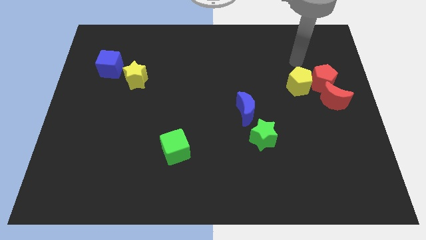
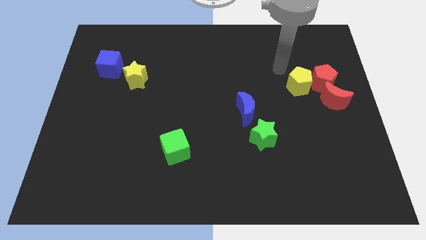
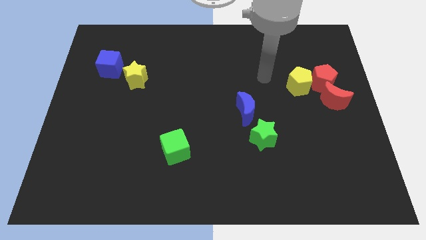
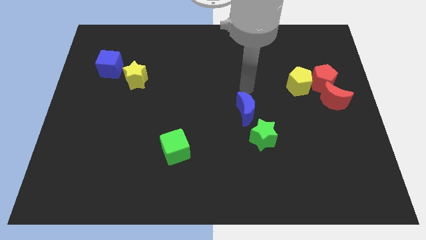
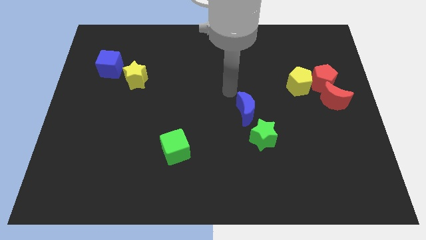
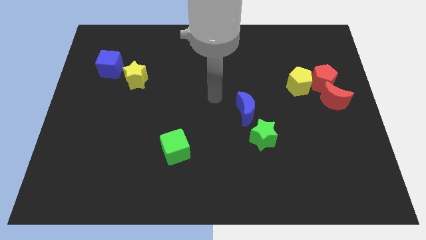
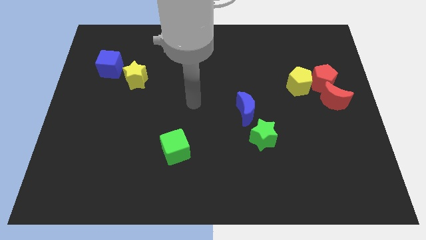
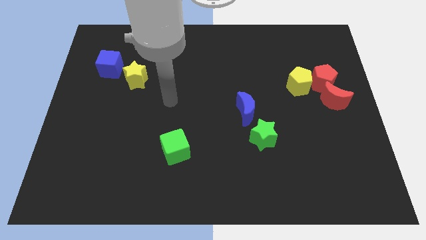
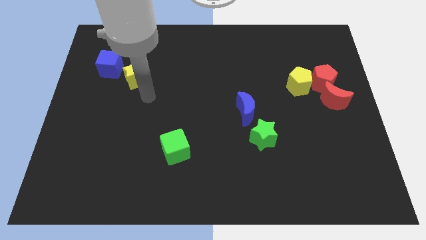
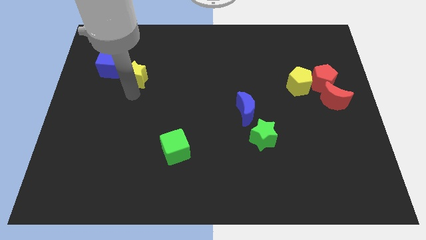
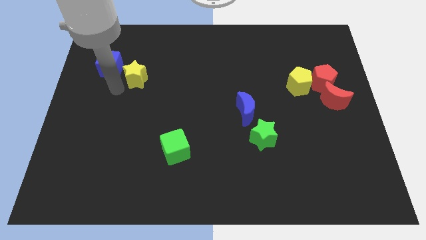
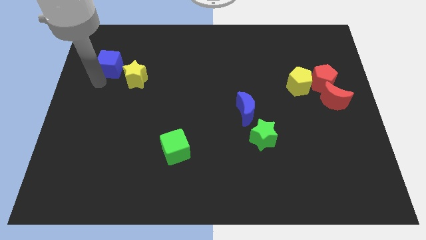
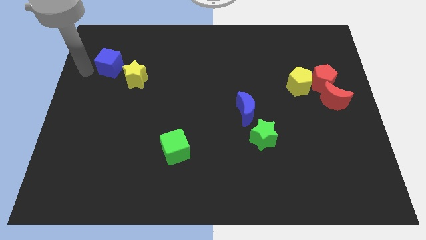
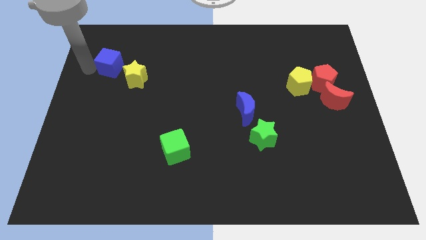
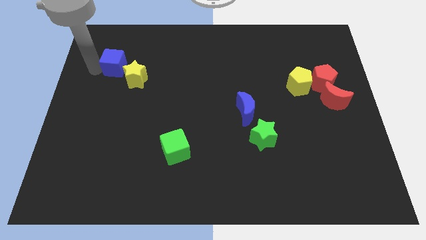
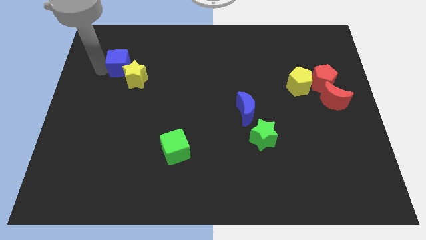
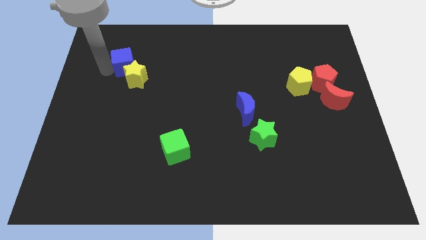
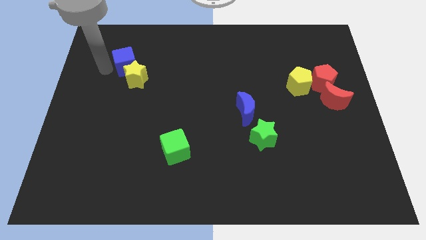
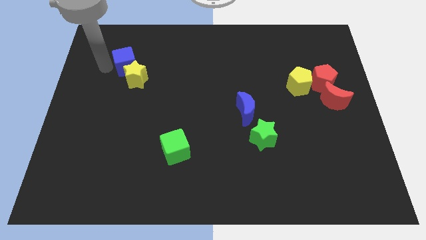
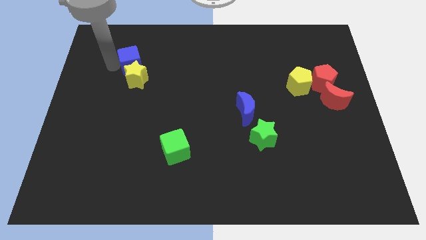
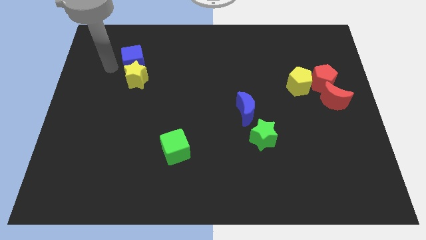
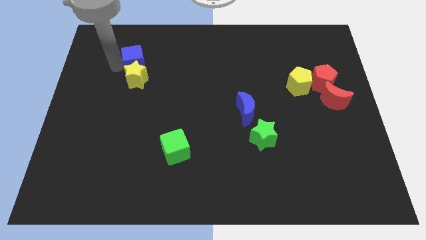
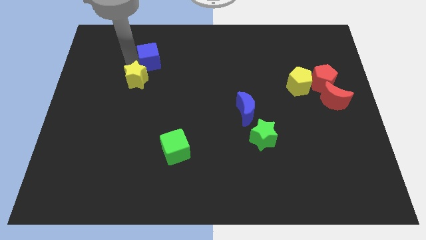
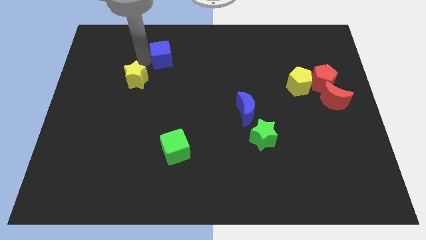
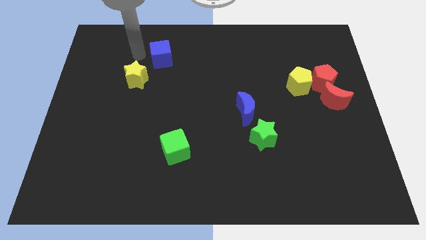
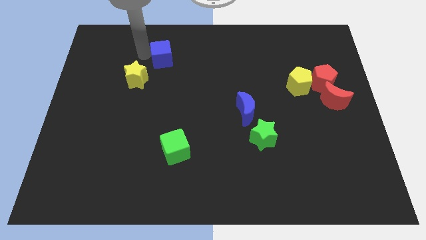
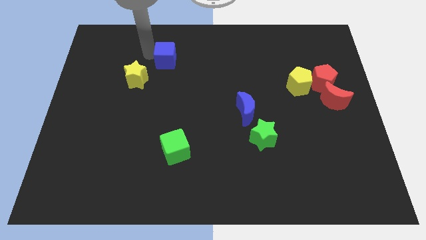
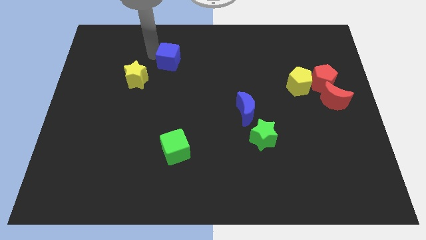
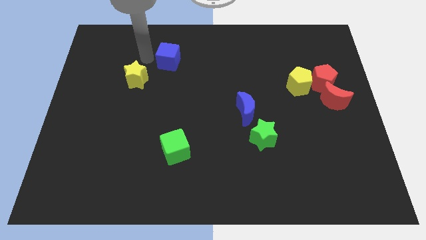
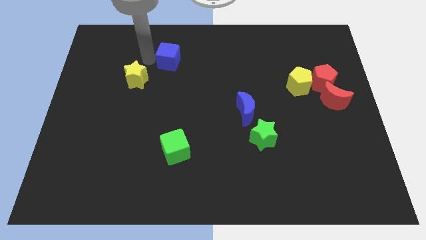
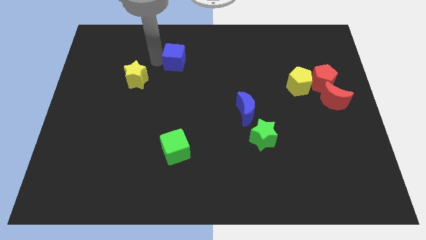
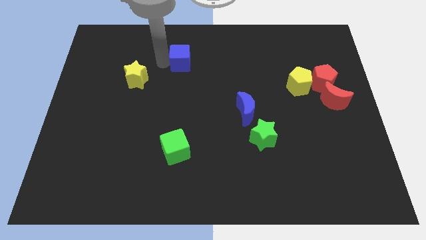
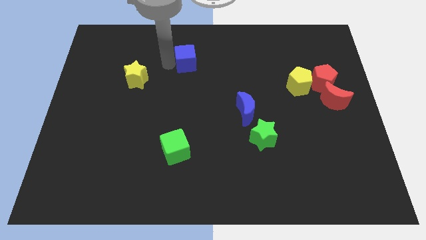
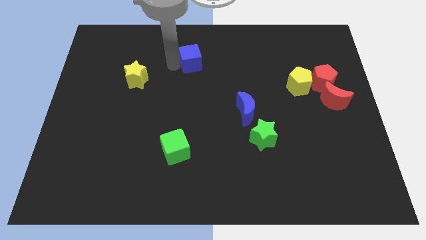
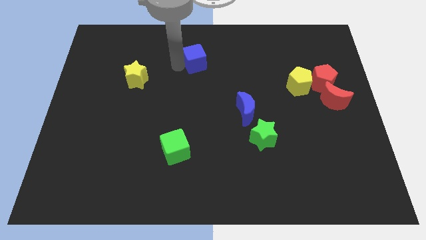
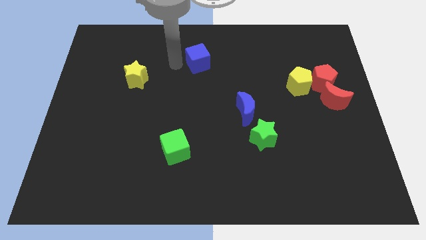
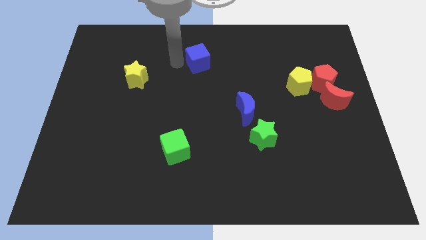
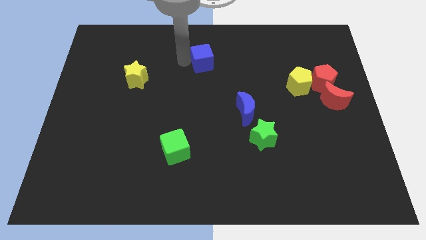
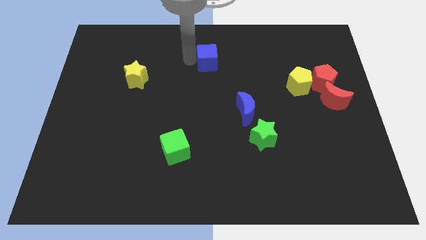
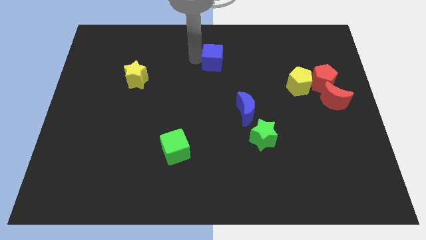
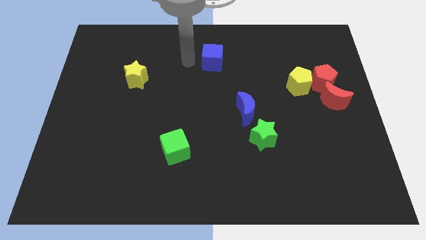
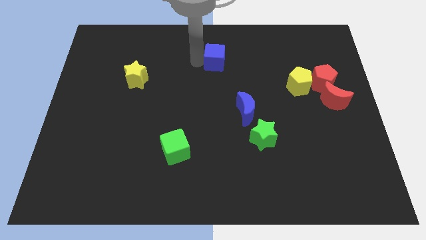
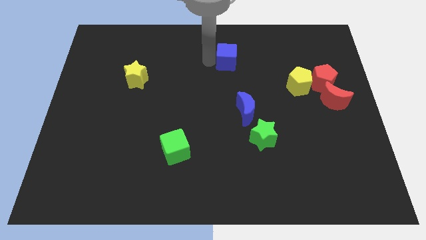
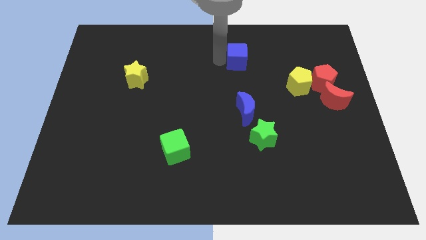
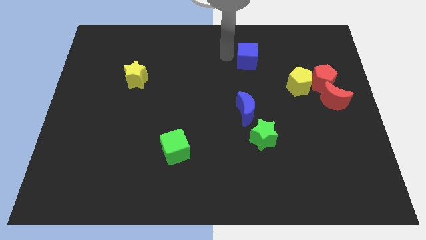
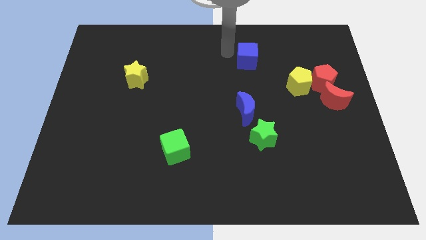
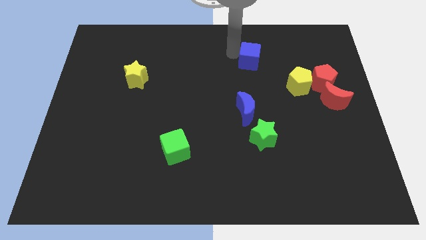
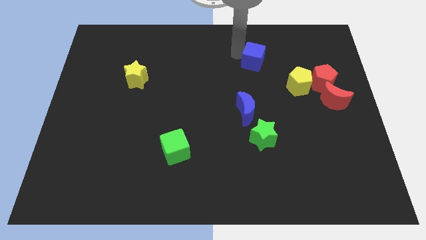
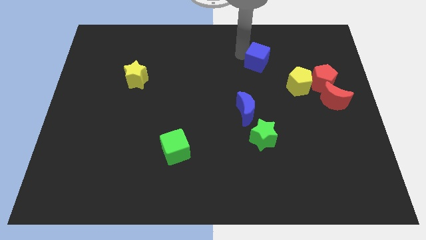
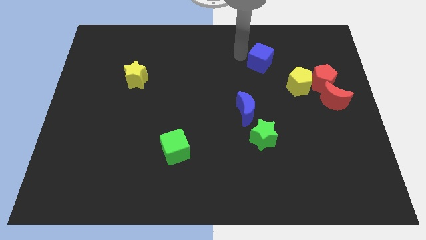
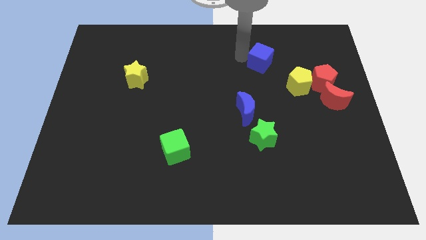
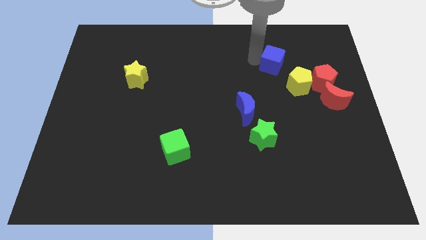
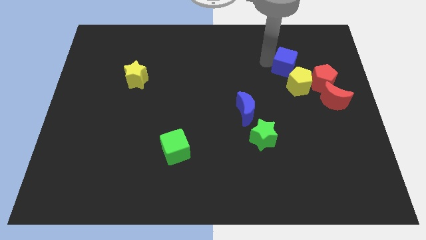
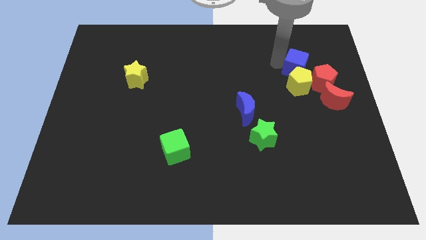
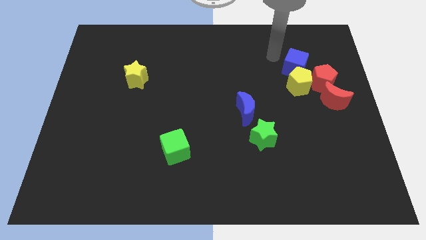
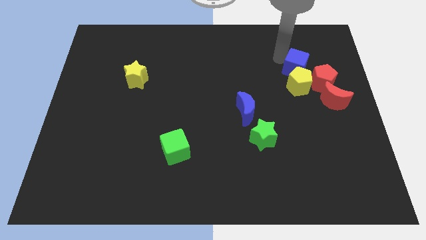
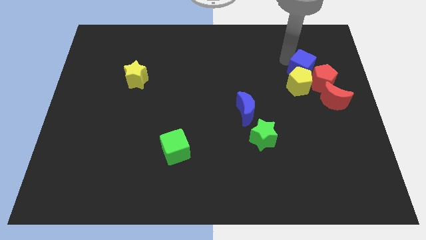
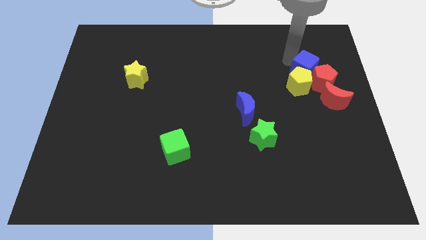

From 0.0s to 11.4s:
put the blue cube next to the red pentagon

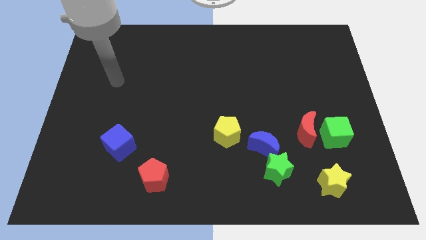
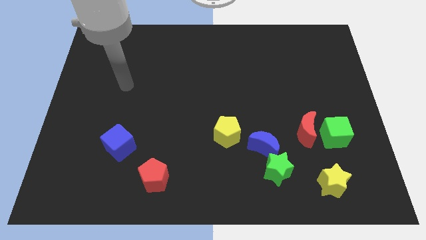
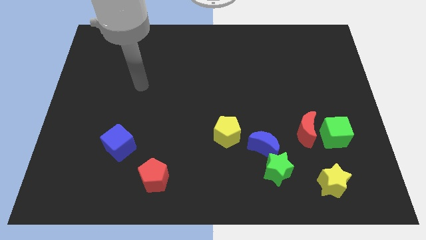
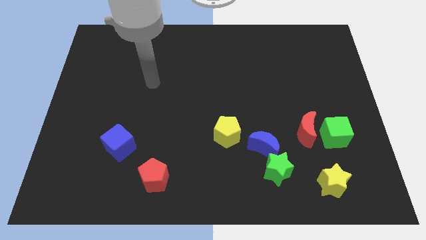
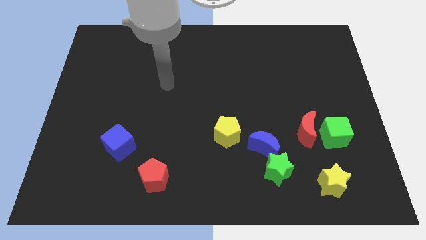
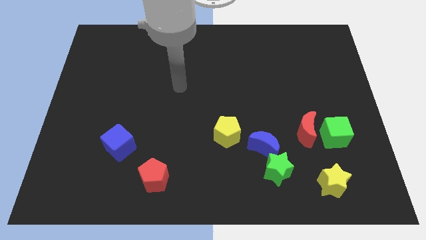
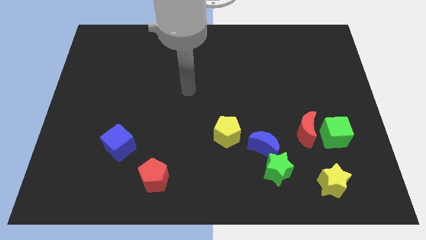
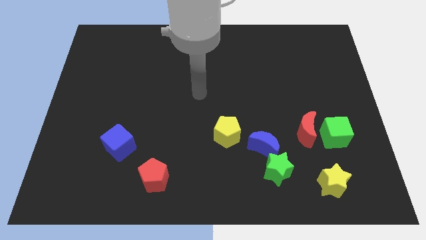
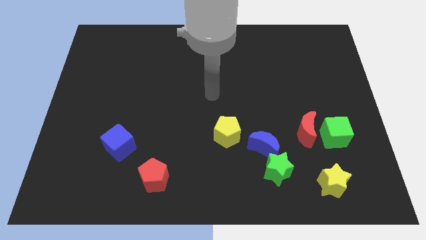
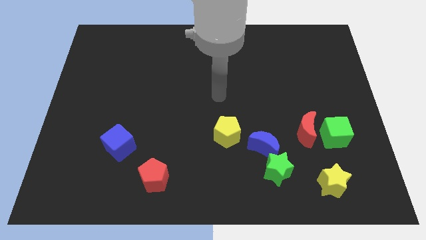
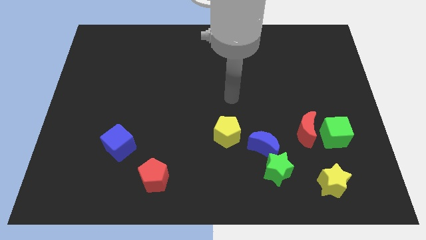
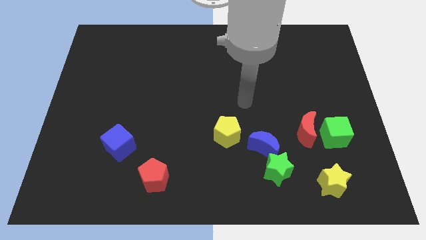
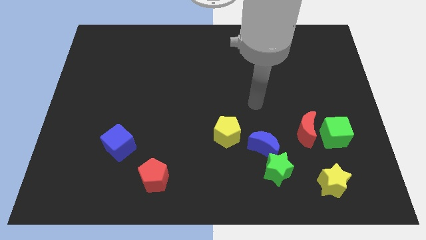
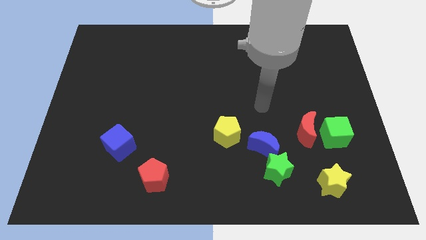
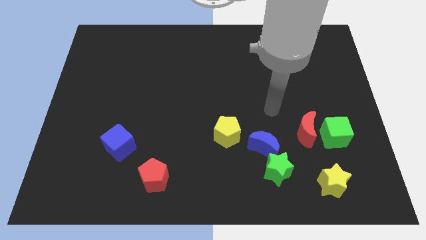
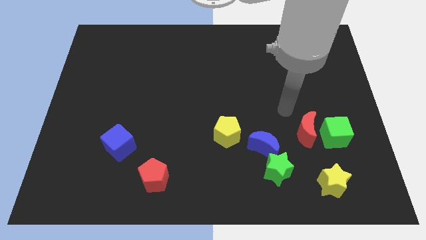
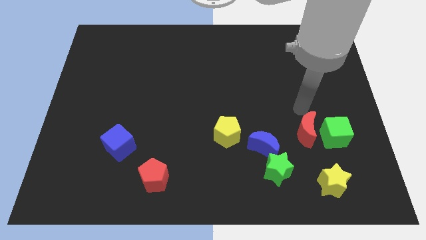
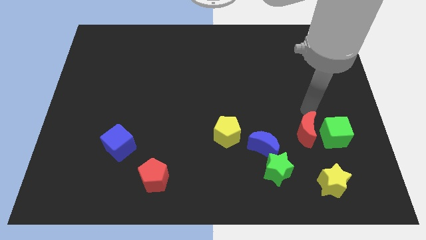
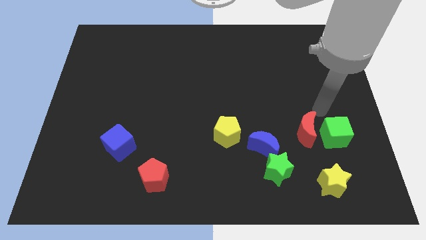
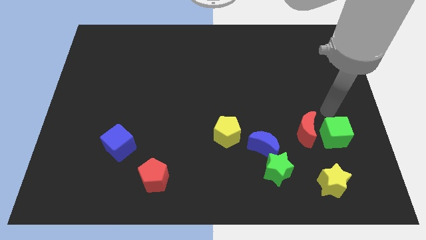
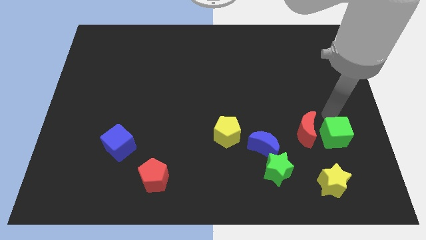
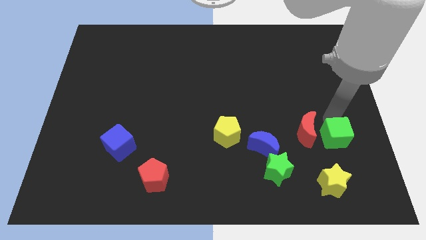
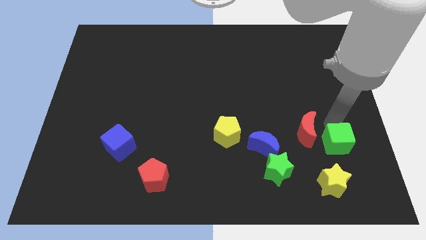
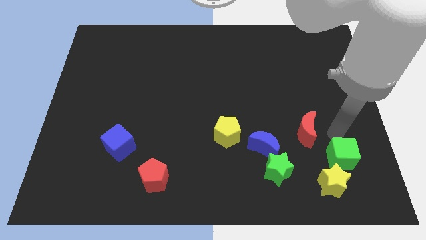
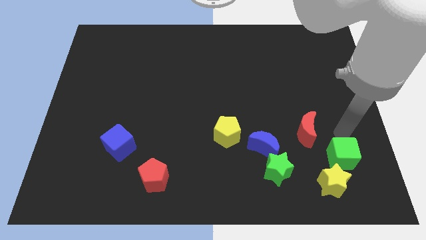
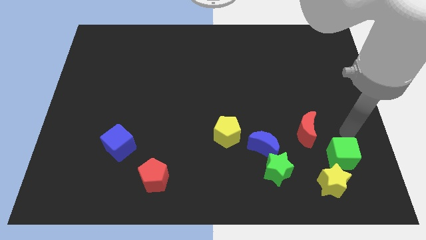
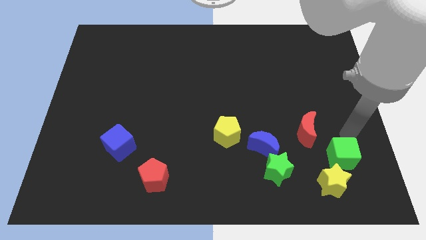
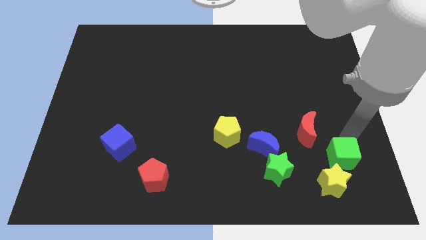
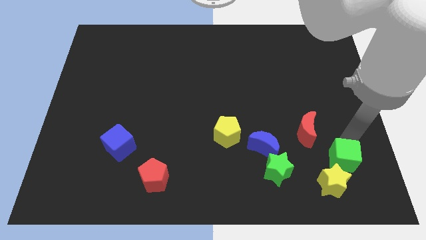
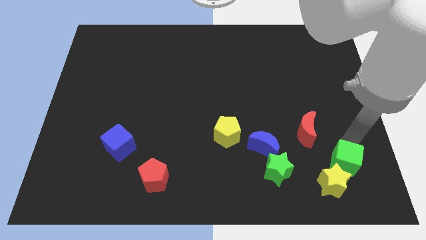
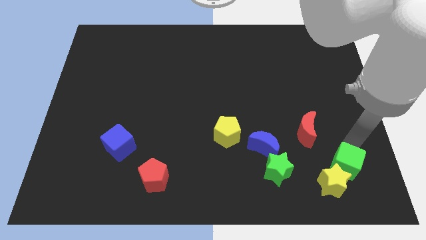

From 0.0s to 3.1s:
move the green cube close to the yellow star
